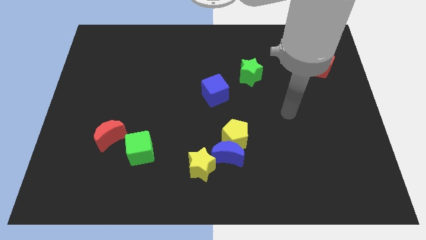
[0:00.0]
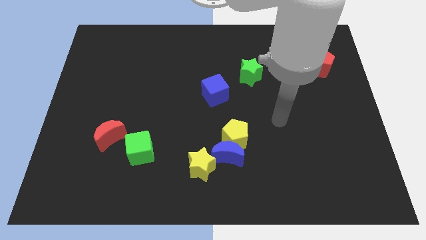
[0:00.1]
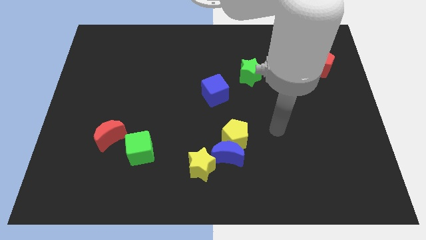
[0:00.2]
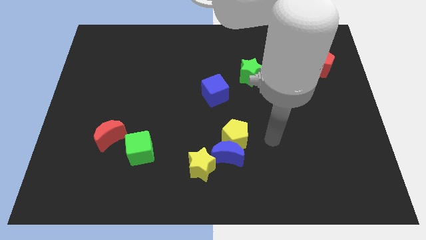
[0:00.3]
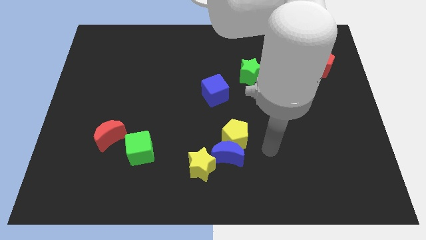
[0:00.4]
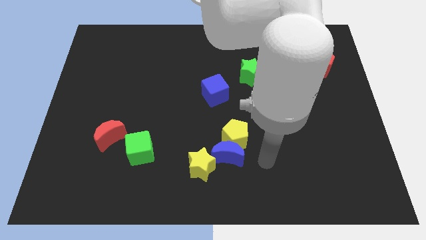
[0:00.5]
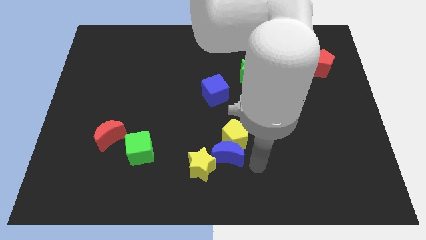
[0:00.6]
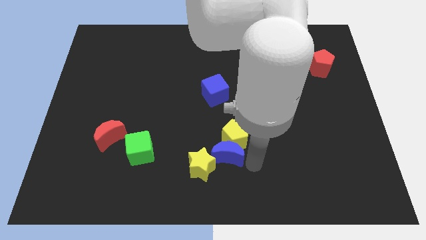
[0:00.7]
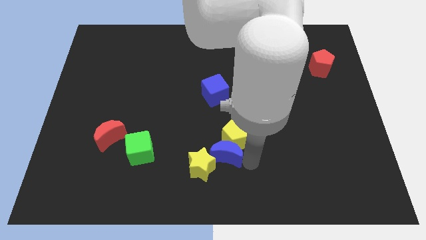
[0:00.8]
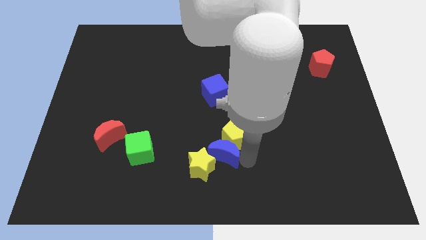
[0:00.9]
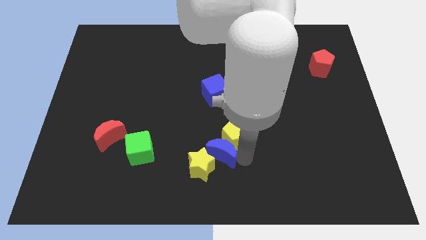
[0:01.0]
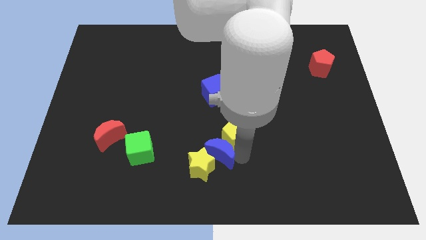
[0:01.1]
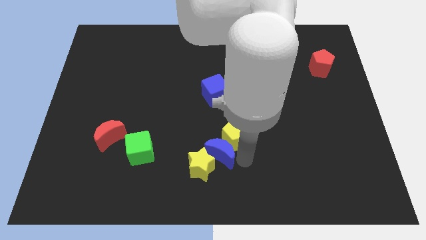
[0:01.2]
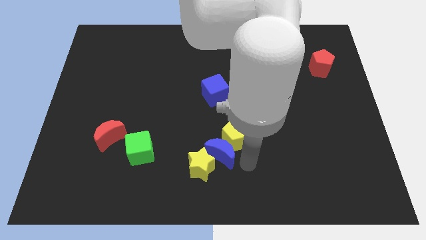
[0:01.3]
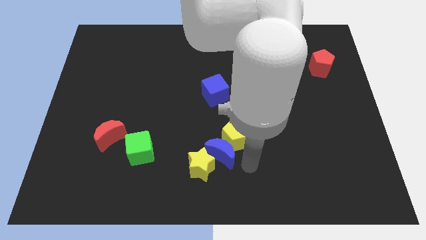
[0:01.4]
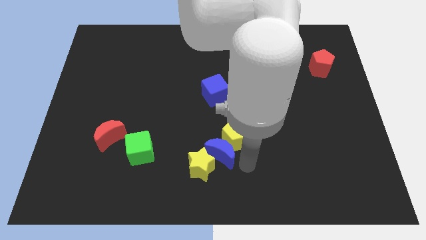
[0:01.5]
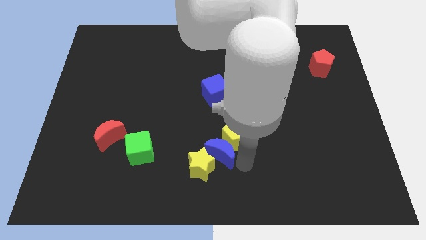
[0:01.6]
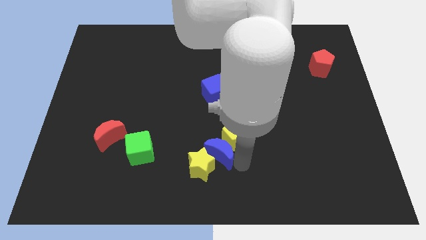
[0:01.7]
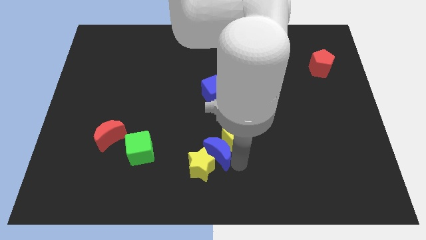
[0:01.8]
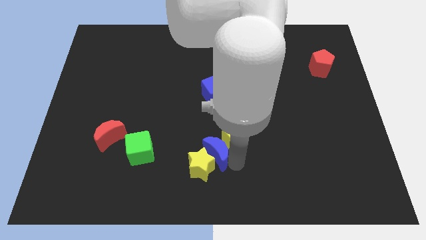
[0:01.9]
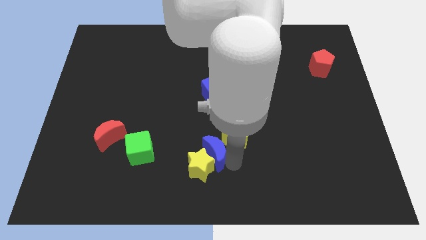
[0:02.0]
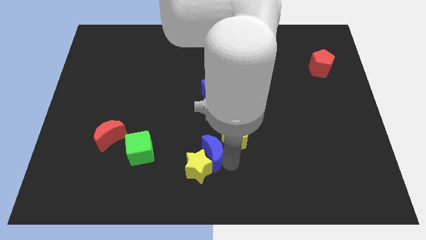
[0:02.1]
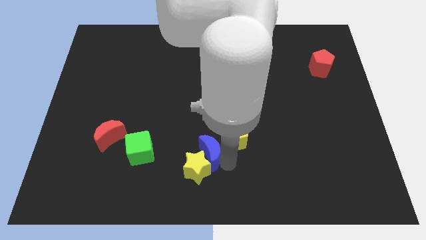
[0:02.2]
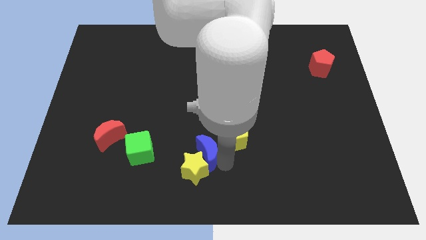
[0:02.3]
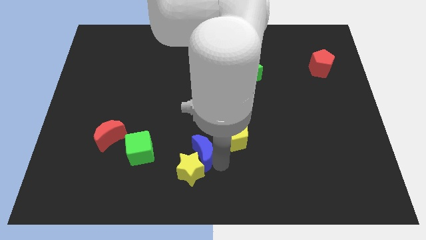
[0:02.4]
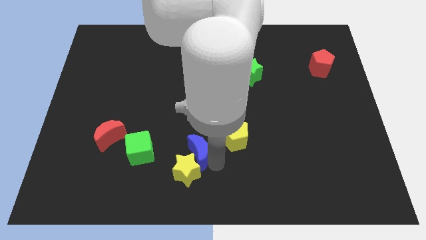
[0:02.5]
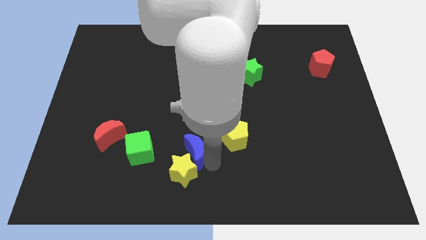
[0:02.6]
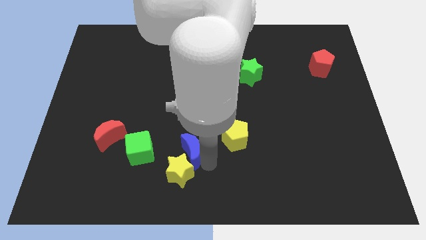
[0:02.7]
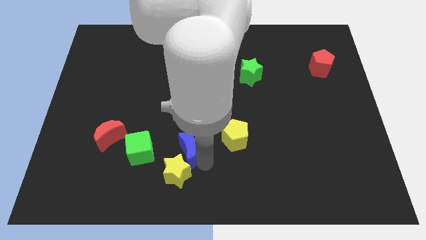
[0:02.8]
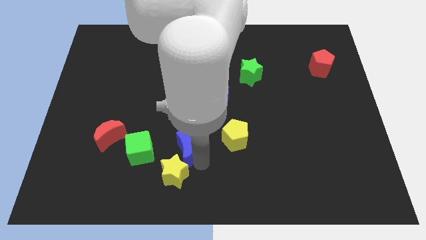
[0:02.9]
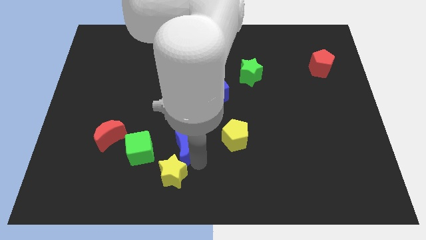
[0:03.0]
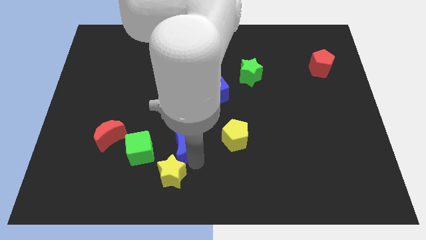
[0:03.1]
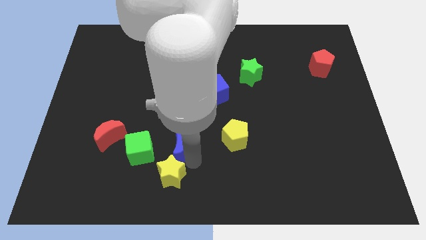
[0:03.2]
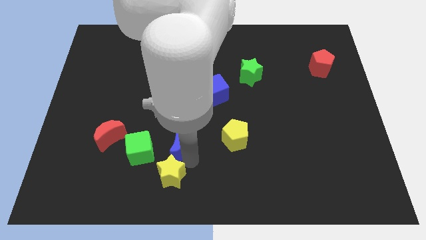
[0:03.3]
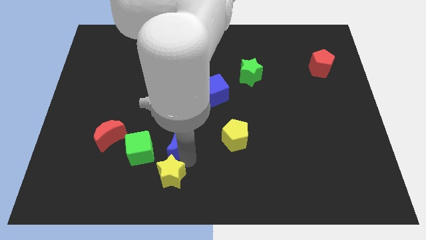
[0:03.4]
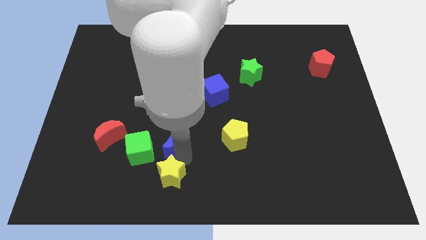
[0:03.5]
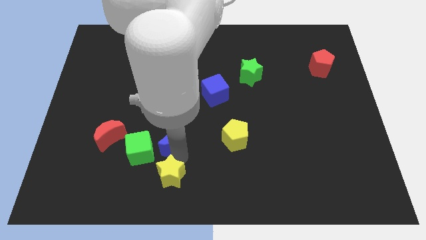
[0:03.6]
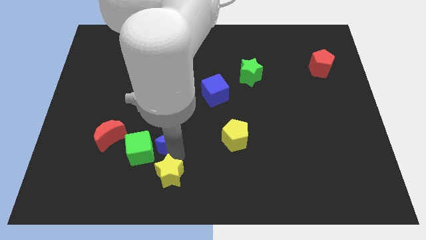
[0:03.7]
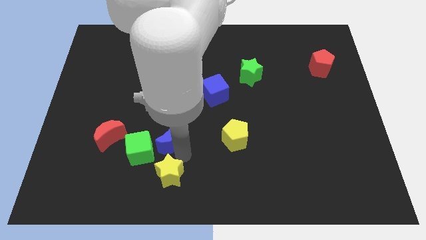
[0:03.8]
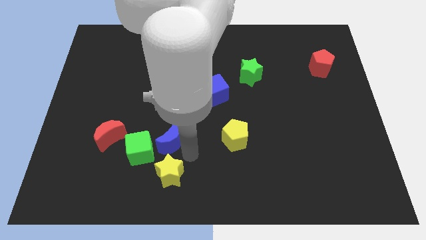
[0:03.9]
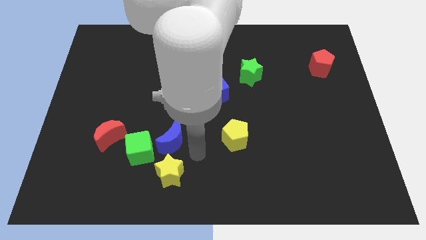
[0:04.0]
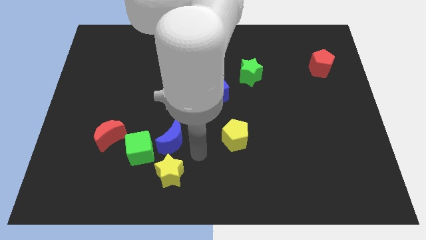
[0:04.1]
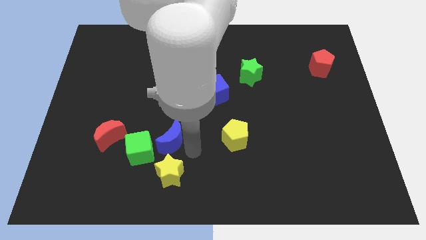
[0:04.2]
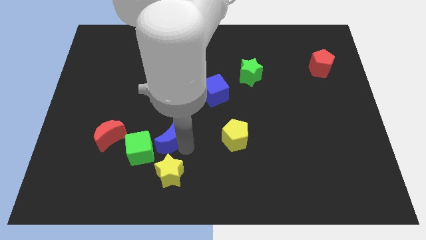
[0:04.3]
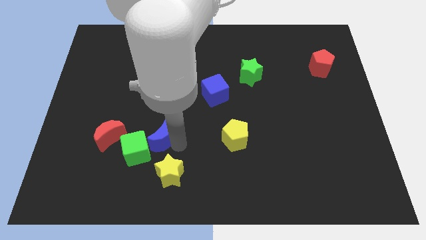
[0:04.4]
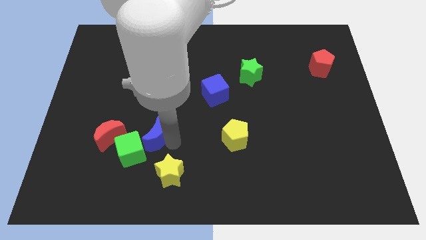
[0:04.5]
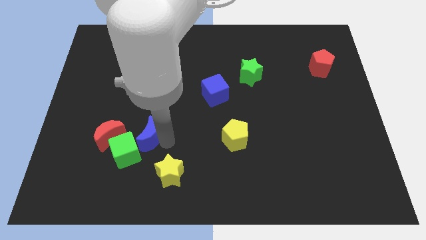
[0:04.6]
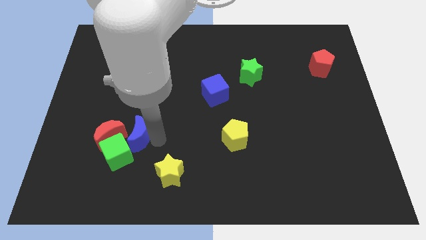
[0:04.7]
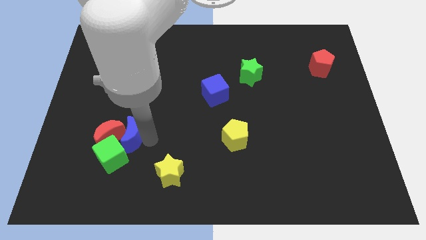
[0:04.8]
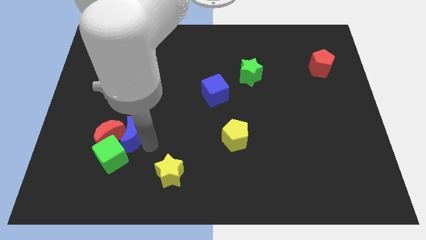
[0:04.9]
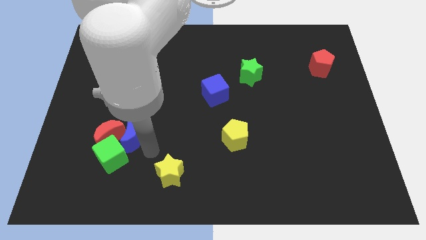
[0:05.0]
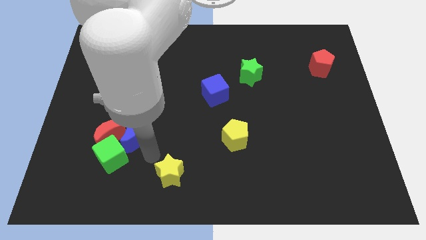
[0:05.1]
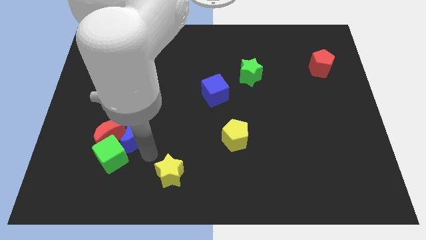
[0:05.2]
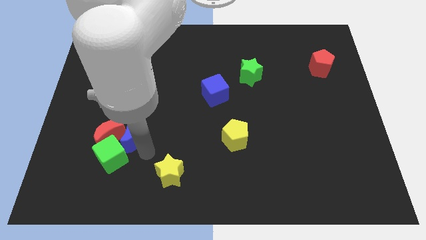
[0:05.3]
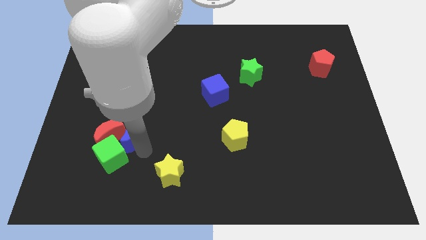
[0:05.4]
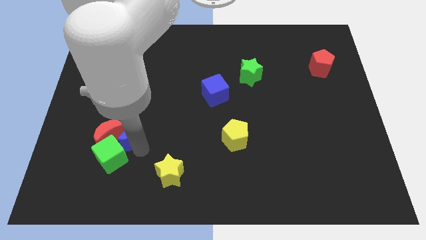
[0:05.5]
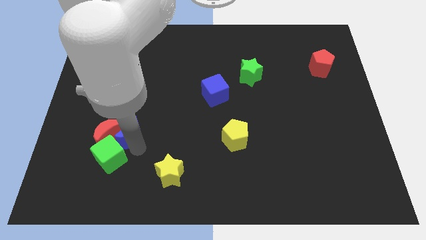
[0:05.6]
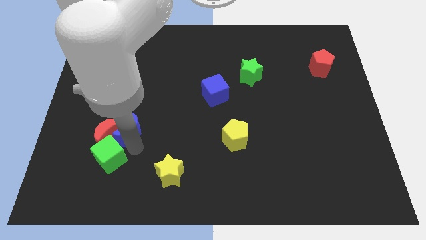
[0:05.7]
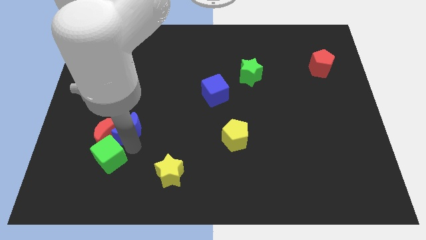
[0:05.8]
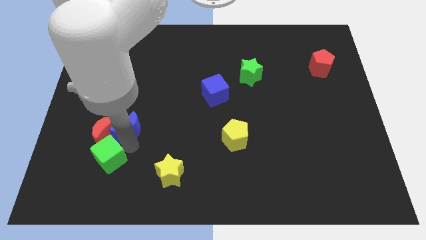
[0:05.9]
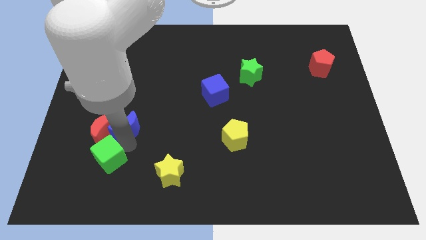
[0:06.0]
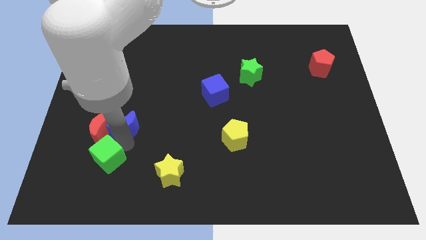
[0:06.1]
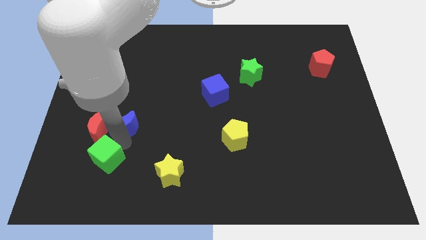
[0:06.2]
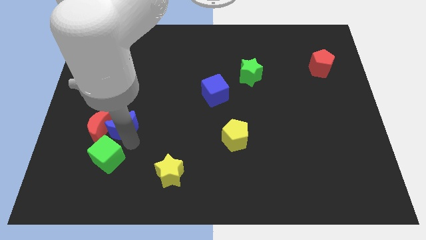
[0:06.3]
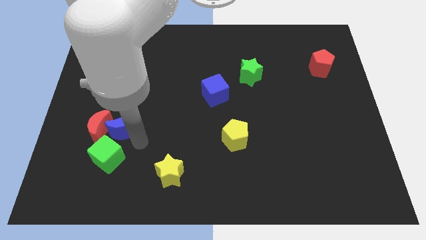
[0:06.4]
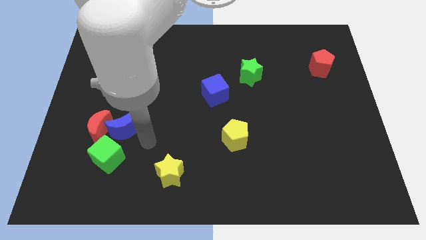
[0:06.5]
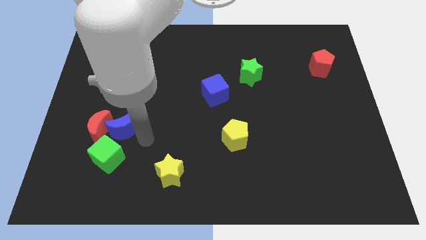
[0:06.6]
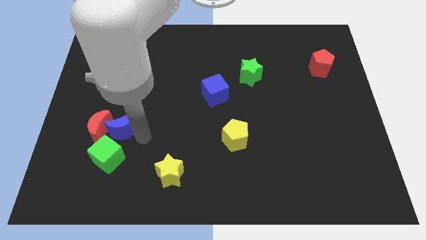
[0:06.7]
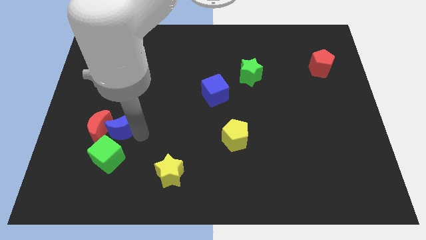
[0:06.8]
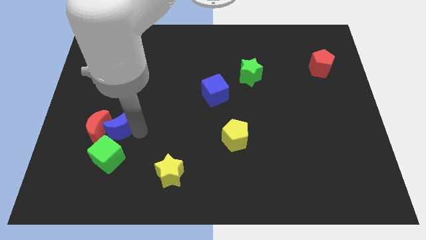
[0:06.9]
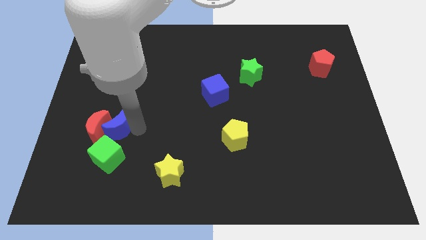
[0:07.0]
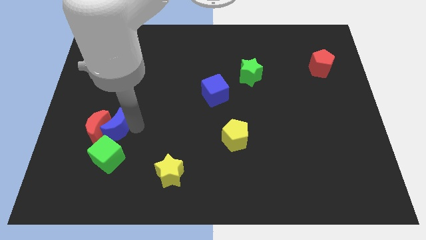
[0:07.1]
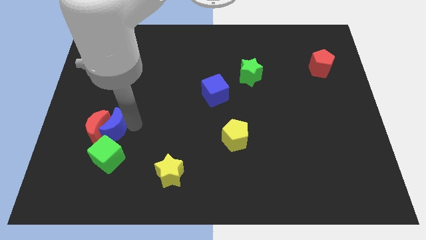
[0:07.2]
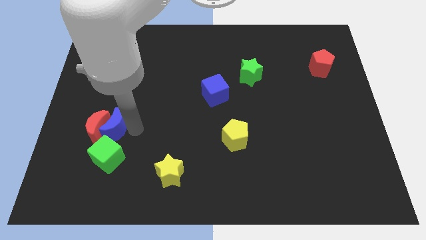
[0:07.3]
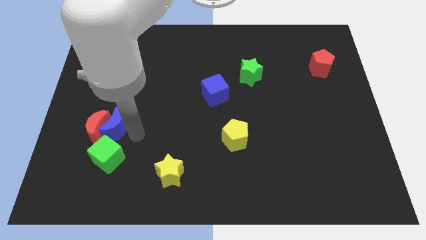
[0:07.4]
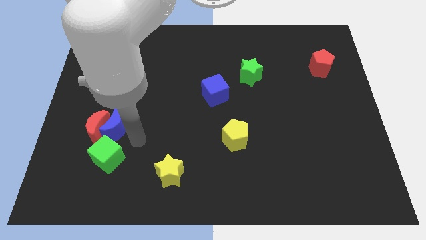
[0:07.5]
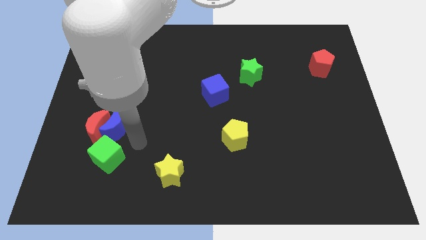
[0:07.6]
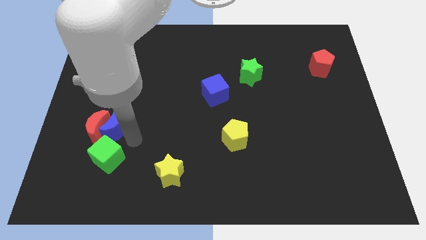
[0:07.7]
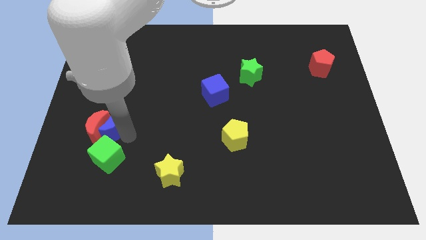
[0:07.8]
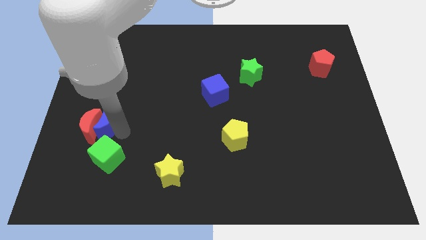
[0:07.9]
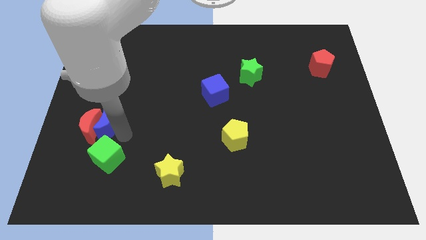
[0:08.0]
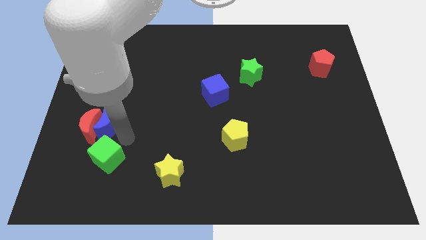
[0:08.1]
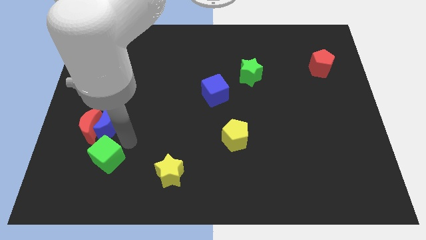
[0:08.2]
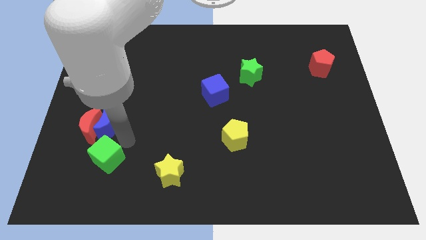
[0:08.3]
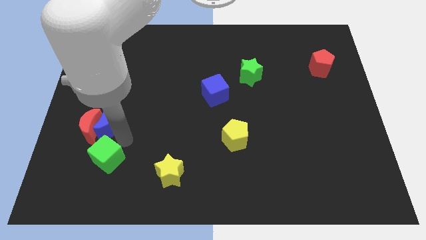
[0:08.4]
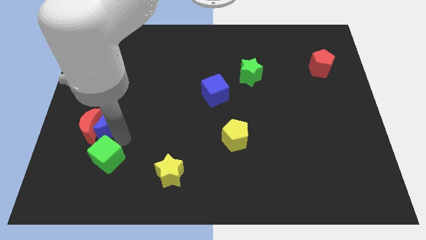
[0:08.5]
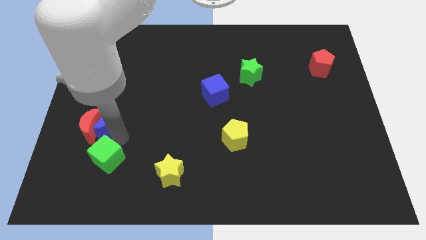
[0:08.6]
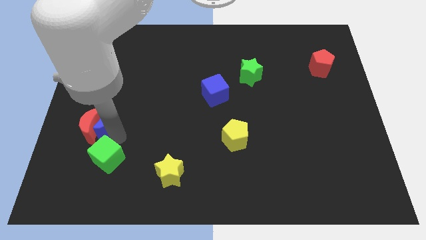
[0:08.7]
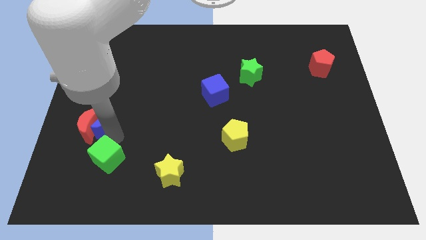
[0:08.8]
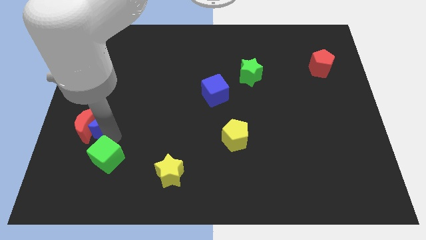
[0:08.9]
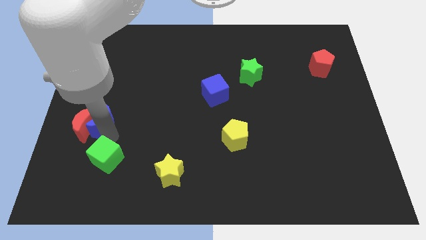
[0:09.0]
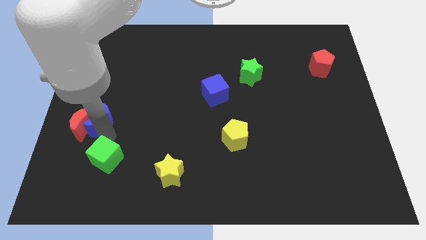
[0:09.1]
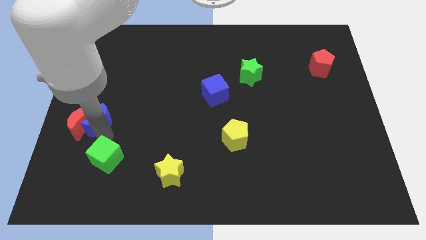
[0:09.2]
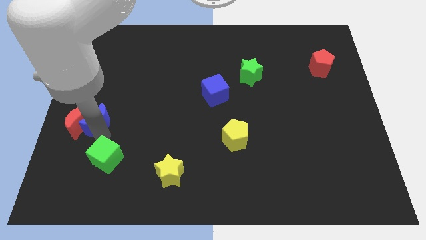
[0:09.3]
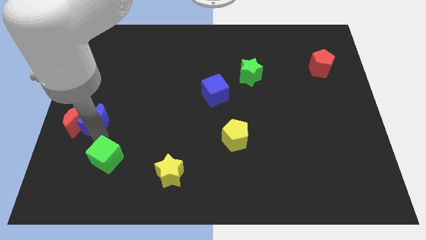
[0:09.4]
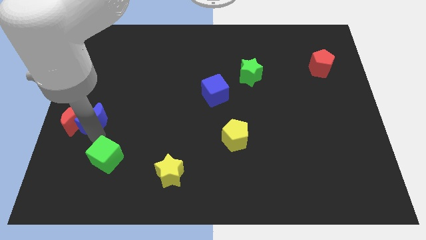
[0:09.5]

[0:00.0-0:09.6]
slide the blue moon to the center left
